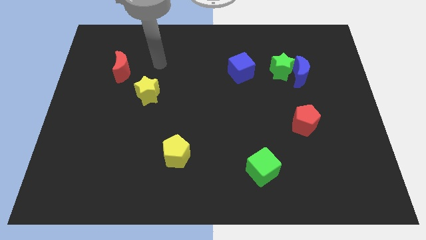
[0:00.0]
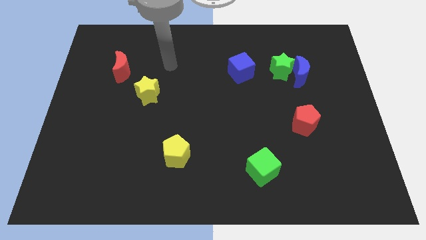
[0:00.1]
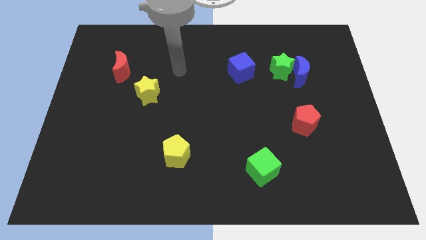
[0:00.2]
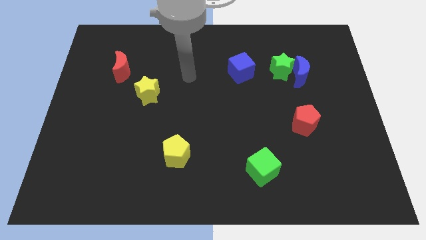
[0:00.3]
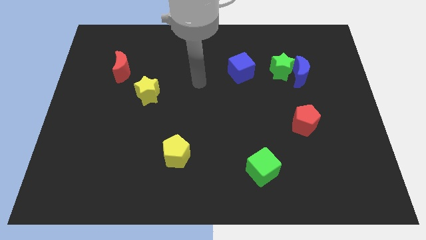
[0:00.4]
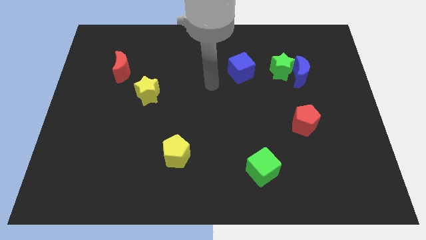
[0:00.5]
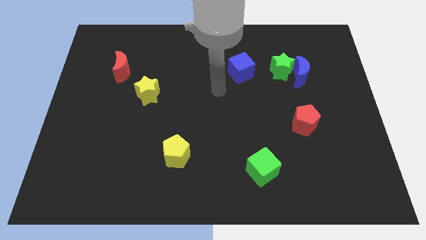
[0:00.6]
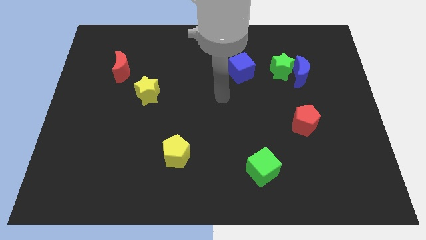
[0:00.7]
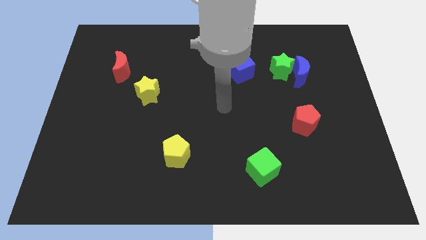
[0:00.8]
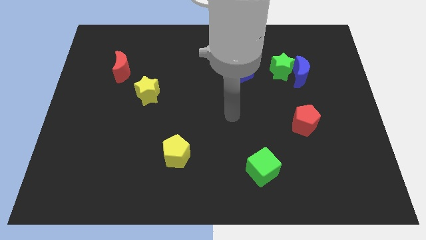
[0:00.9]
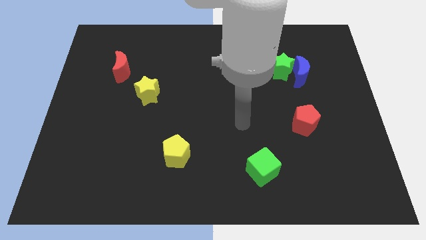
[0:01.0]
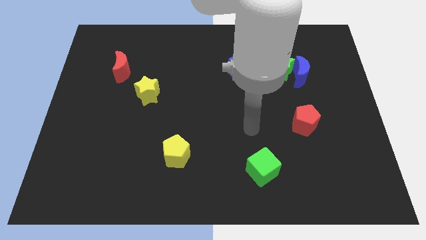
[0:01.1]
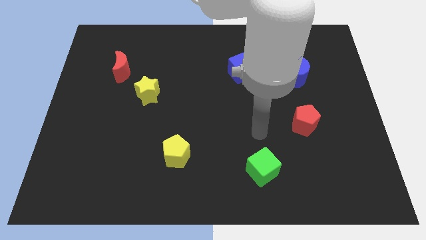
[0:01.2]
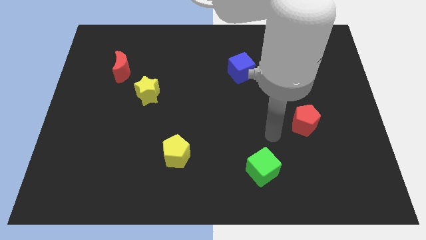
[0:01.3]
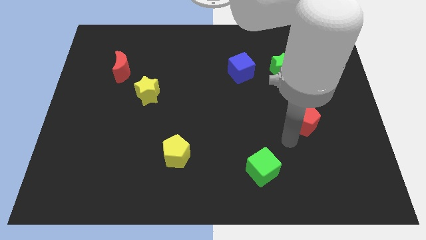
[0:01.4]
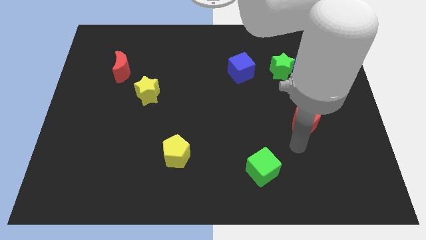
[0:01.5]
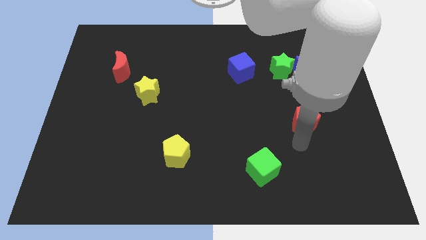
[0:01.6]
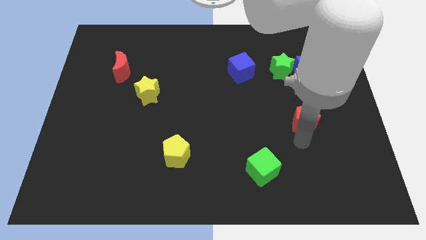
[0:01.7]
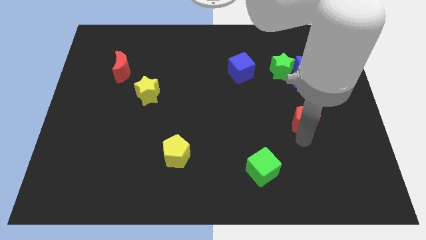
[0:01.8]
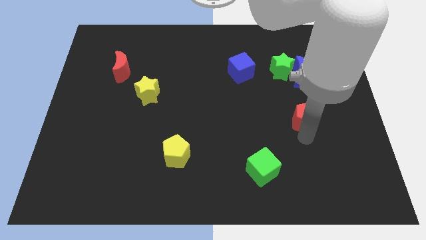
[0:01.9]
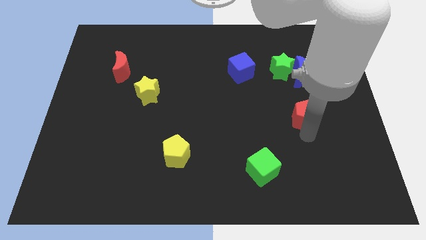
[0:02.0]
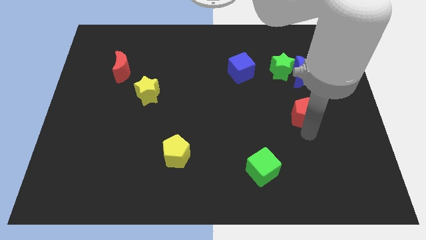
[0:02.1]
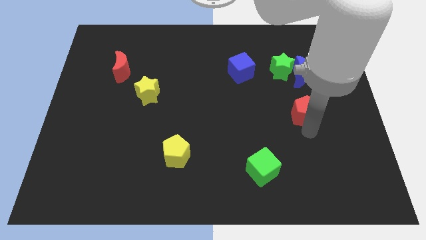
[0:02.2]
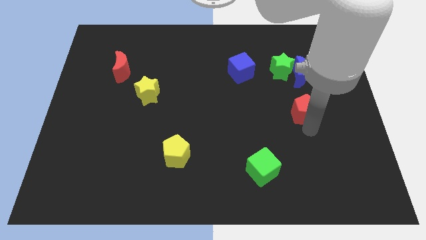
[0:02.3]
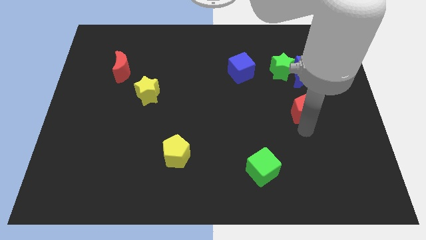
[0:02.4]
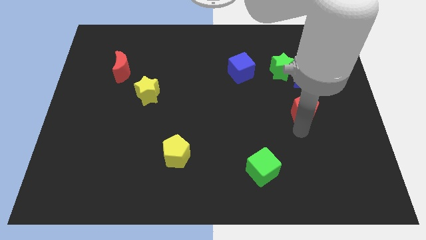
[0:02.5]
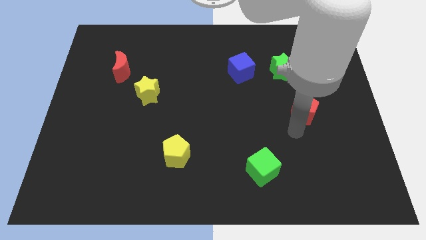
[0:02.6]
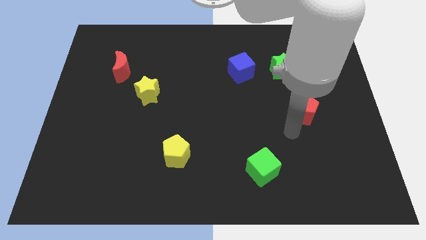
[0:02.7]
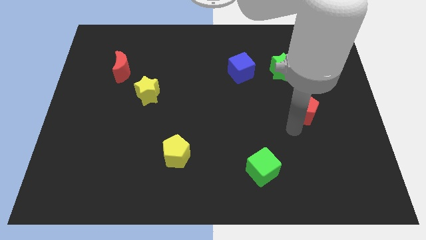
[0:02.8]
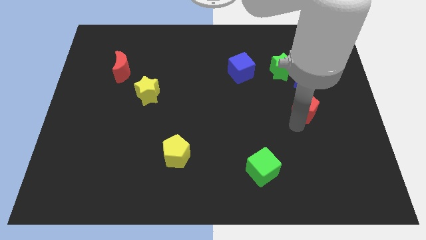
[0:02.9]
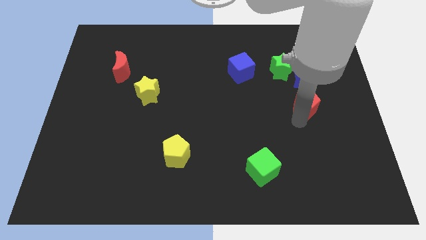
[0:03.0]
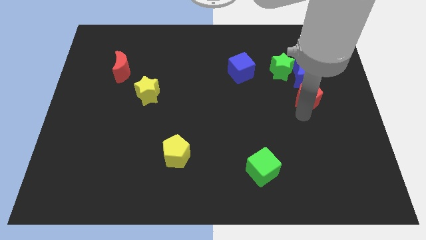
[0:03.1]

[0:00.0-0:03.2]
slide the red pentagon a little bit up

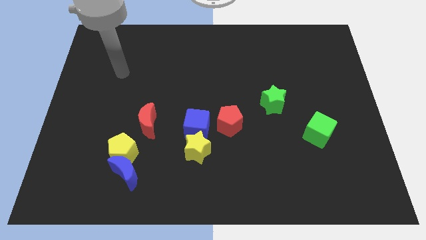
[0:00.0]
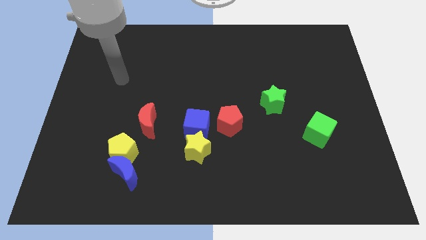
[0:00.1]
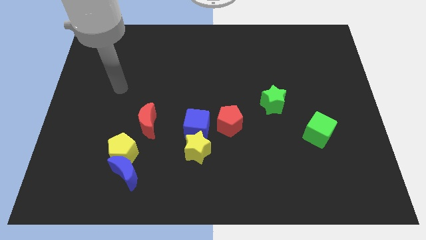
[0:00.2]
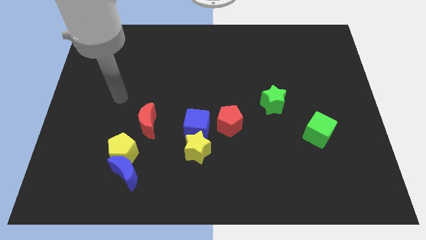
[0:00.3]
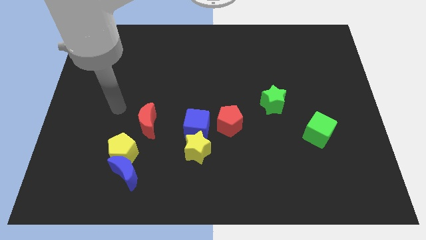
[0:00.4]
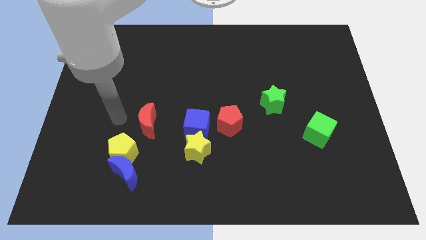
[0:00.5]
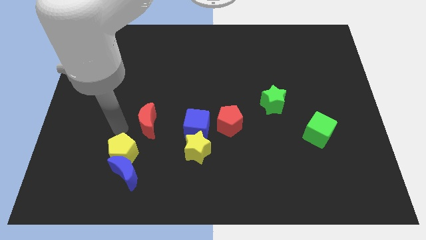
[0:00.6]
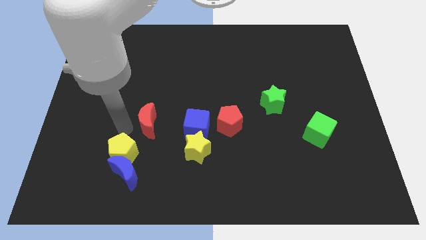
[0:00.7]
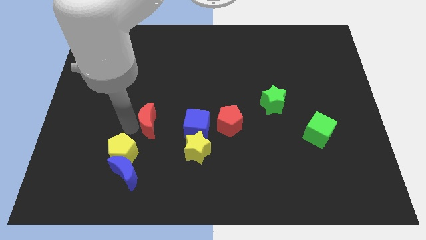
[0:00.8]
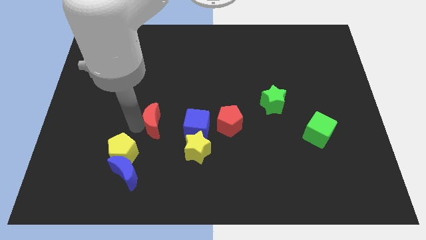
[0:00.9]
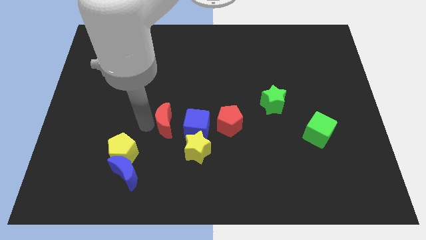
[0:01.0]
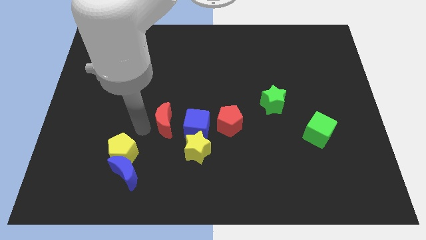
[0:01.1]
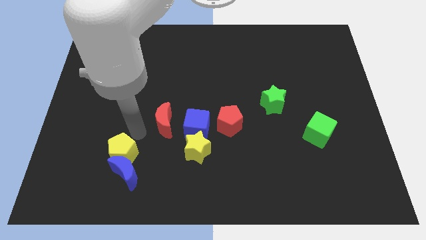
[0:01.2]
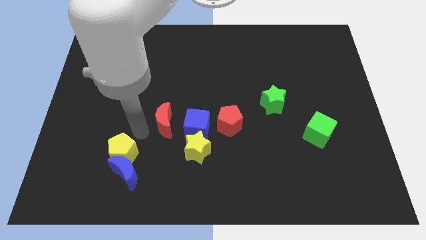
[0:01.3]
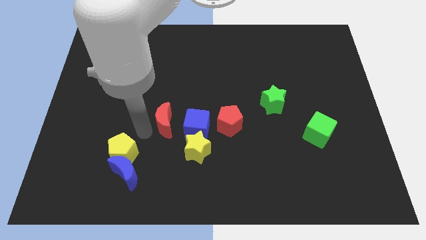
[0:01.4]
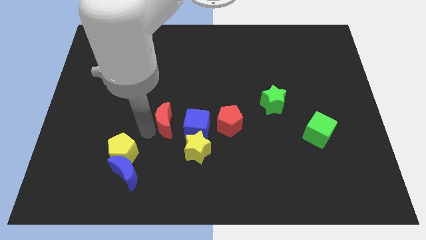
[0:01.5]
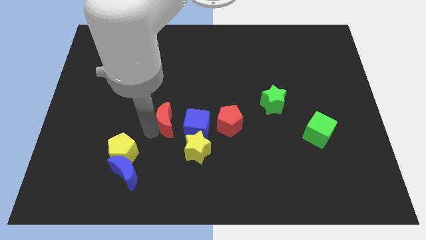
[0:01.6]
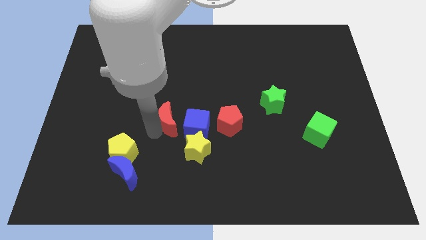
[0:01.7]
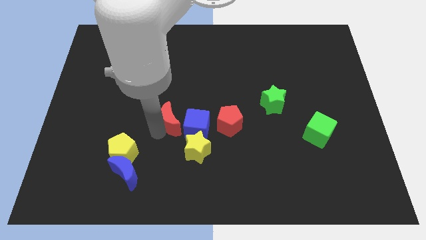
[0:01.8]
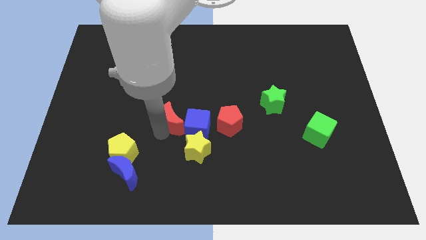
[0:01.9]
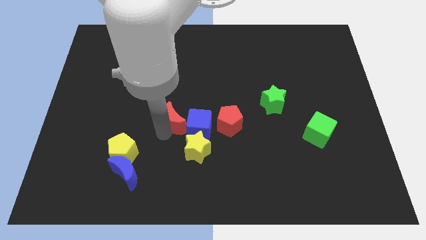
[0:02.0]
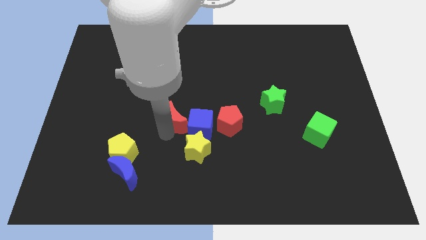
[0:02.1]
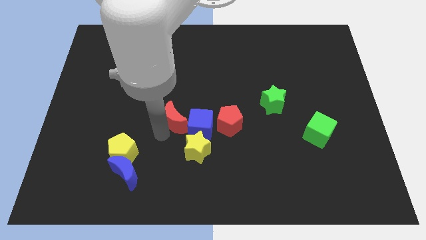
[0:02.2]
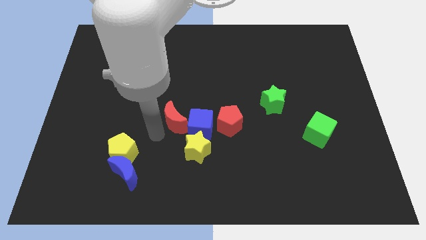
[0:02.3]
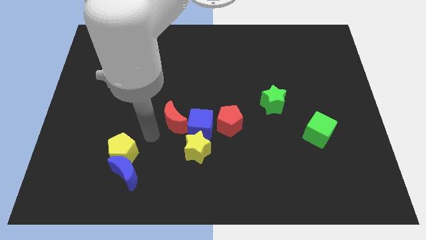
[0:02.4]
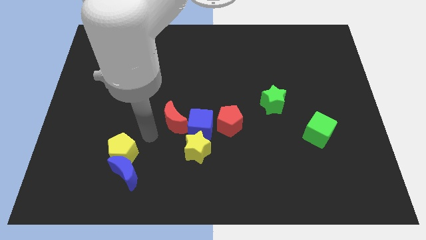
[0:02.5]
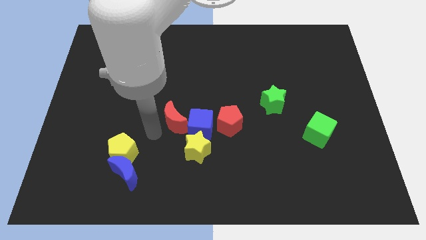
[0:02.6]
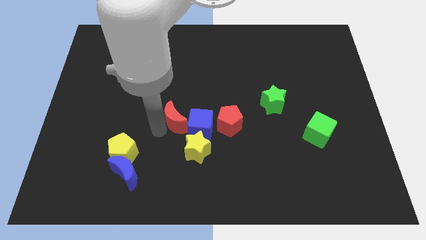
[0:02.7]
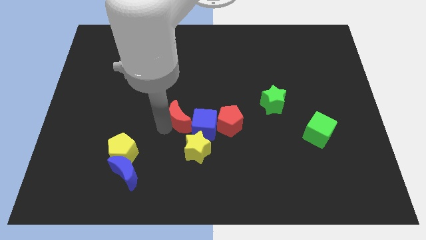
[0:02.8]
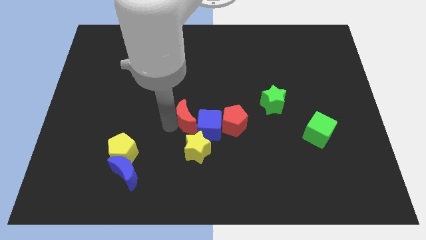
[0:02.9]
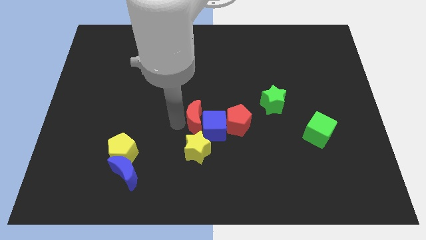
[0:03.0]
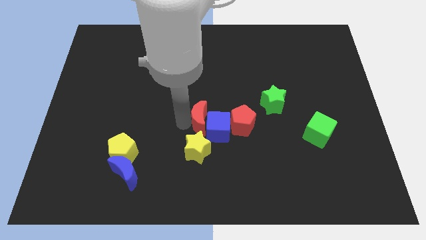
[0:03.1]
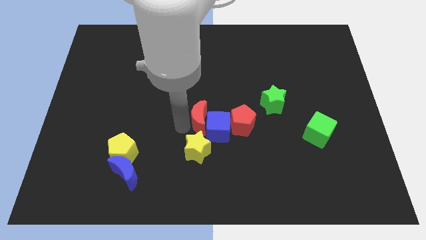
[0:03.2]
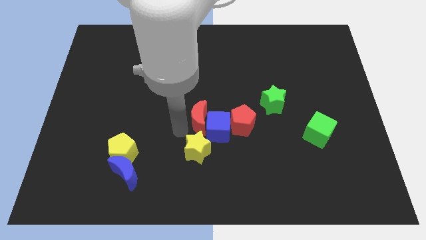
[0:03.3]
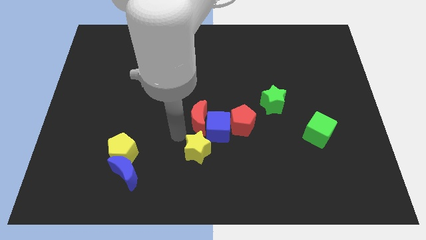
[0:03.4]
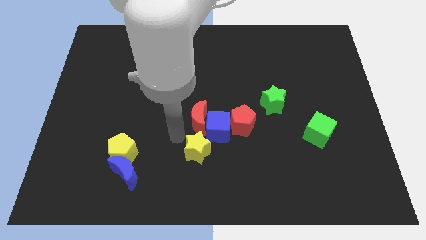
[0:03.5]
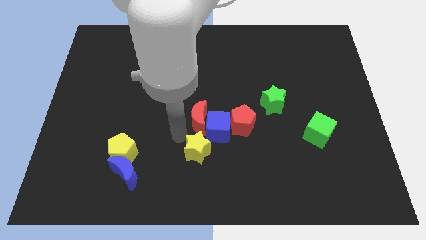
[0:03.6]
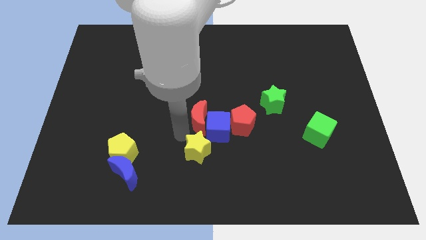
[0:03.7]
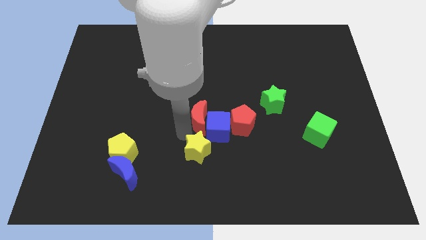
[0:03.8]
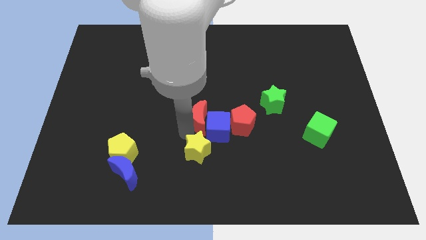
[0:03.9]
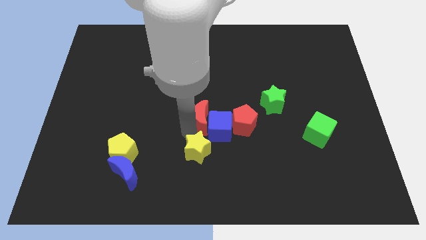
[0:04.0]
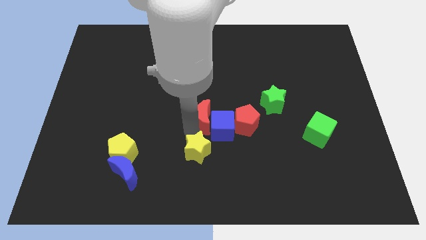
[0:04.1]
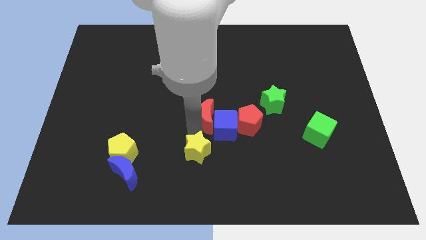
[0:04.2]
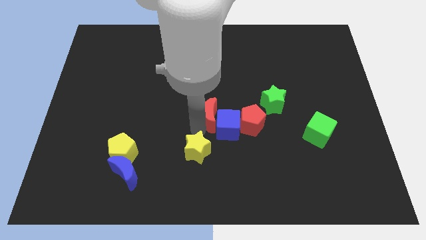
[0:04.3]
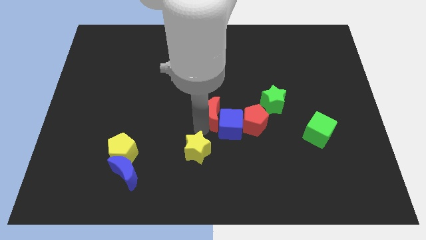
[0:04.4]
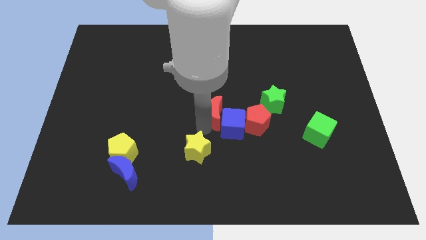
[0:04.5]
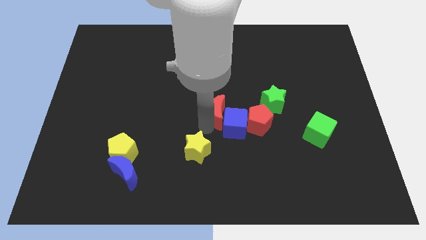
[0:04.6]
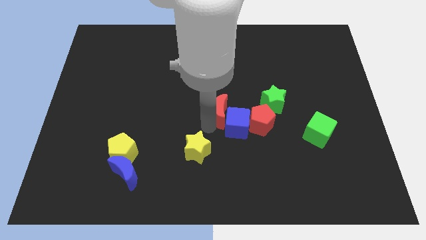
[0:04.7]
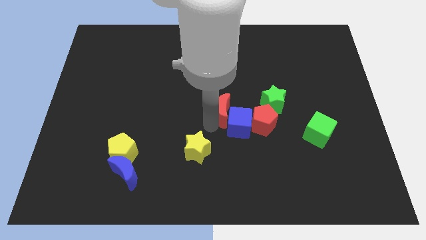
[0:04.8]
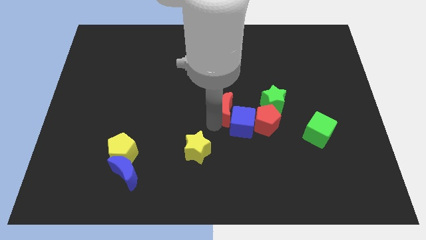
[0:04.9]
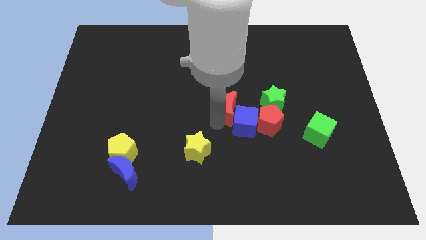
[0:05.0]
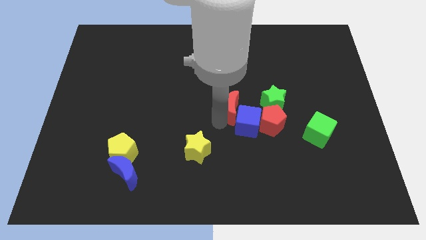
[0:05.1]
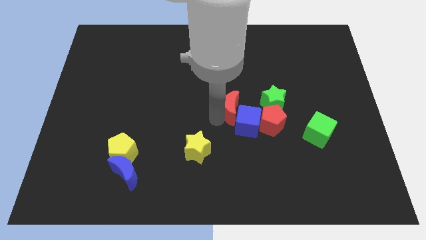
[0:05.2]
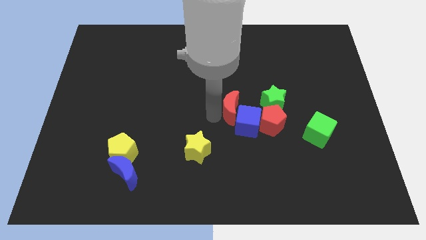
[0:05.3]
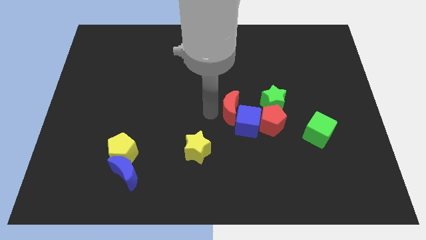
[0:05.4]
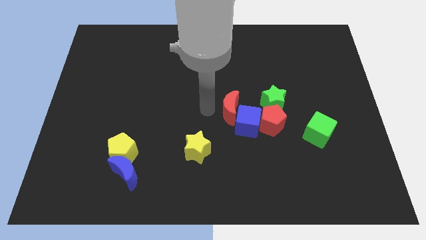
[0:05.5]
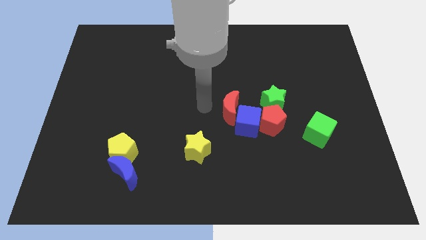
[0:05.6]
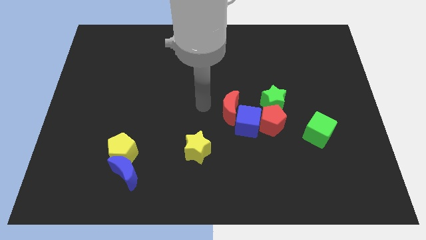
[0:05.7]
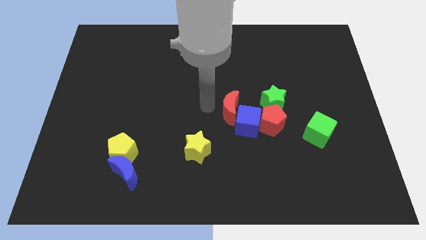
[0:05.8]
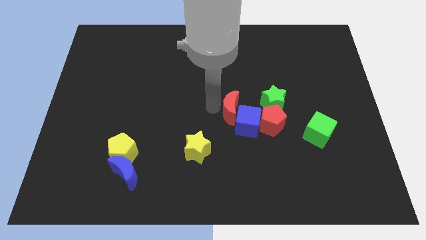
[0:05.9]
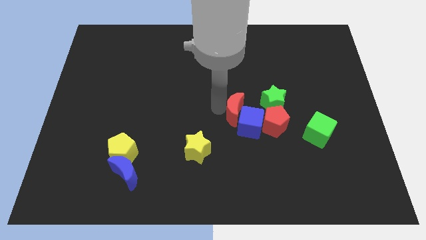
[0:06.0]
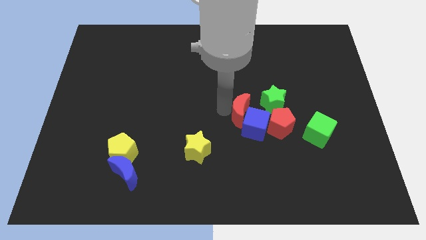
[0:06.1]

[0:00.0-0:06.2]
move the red moon right
